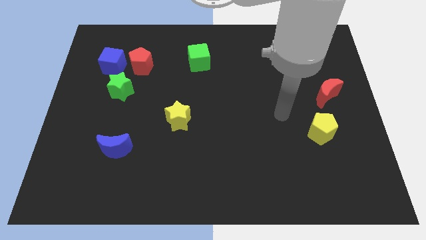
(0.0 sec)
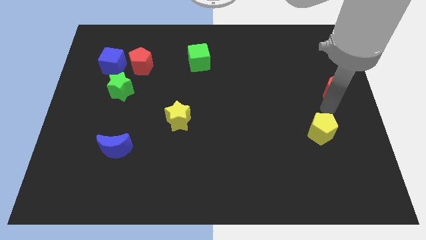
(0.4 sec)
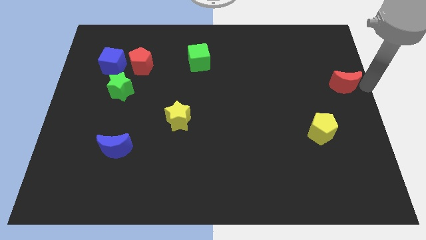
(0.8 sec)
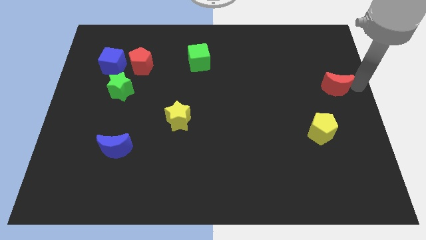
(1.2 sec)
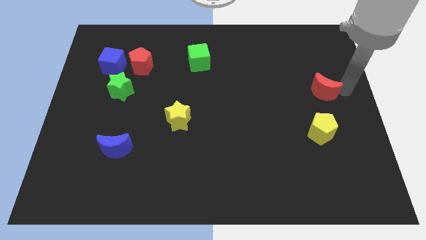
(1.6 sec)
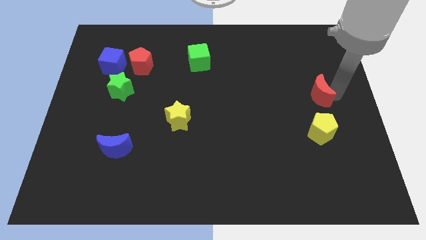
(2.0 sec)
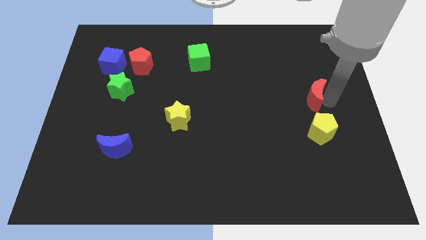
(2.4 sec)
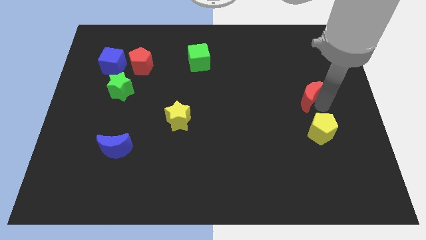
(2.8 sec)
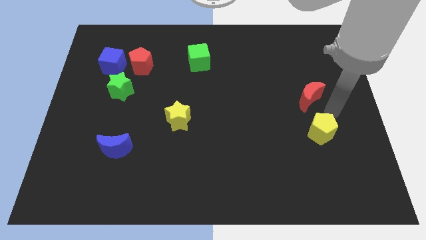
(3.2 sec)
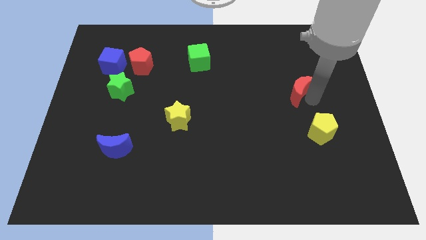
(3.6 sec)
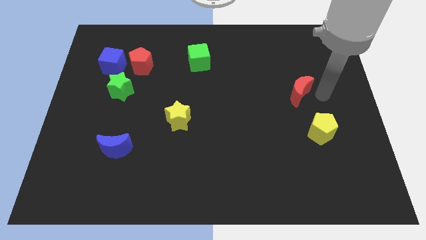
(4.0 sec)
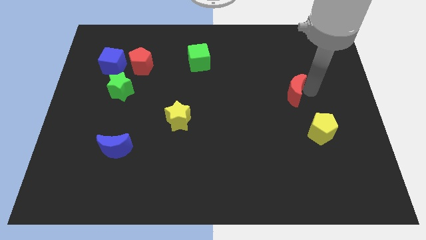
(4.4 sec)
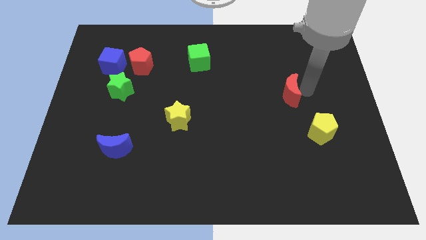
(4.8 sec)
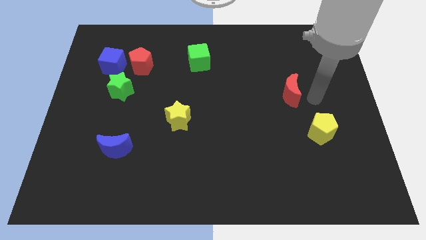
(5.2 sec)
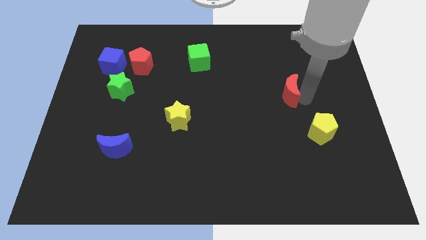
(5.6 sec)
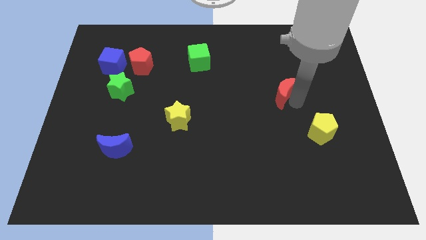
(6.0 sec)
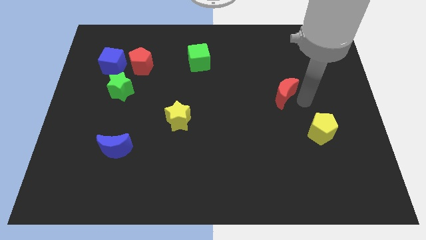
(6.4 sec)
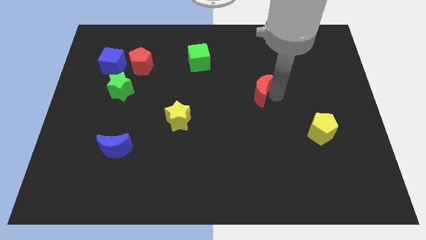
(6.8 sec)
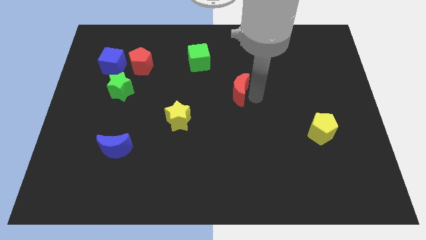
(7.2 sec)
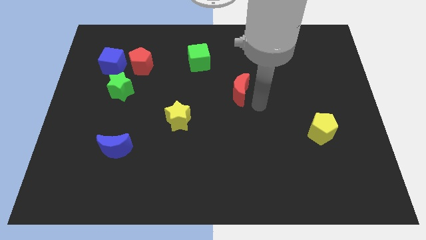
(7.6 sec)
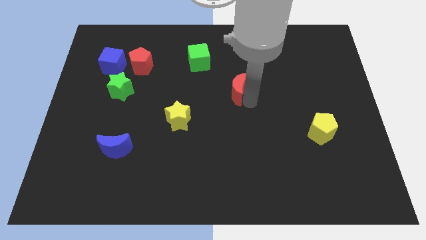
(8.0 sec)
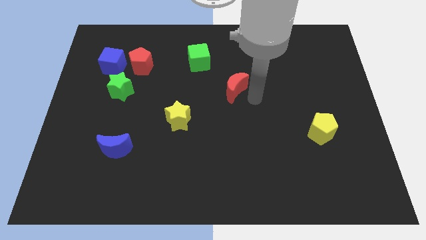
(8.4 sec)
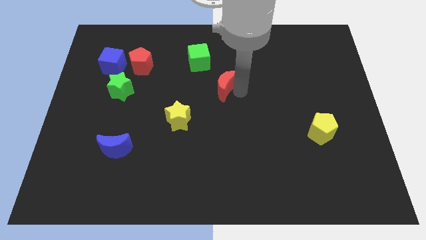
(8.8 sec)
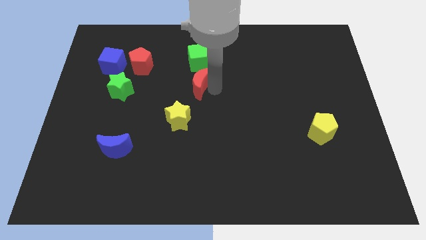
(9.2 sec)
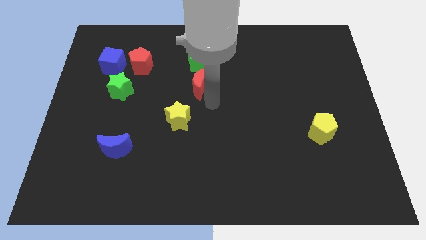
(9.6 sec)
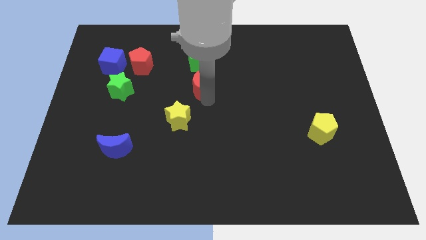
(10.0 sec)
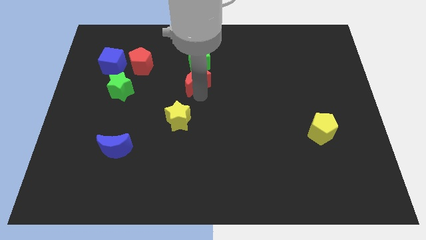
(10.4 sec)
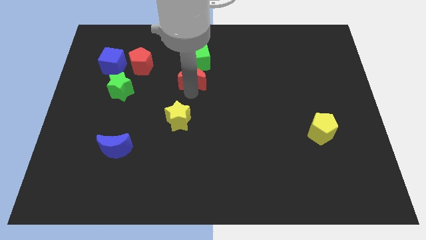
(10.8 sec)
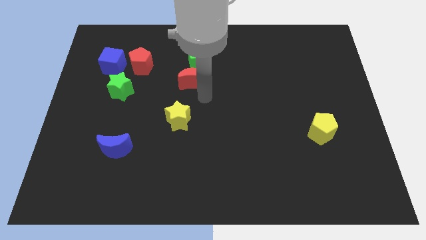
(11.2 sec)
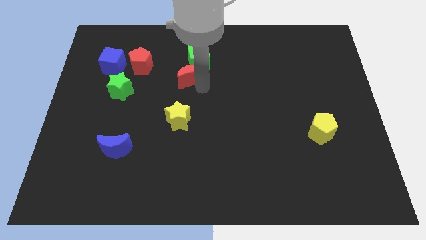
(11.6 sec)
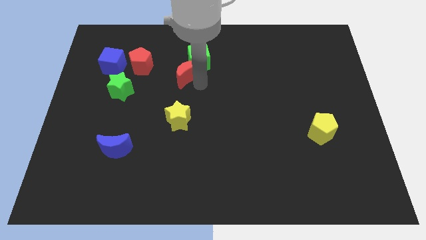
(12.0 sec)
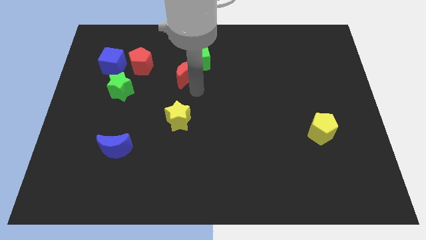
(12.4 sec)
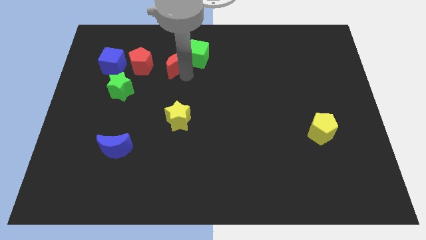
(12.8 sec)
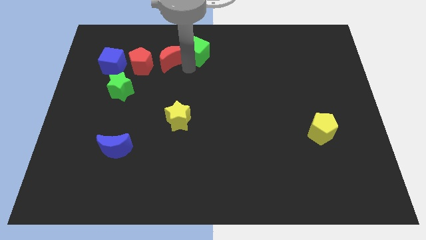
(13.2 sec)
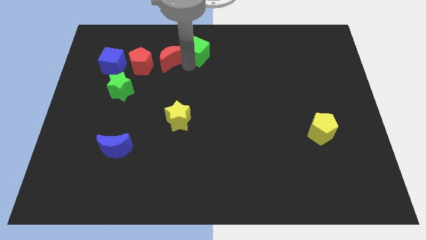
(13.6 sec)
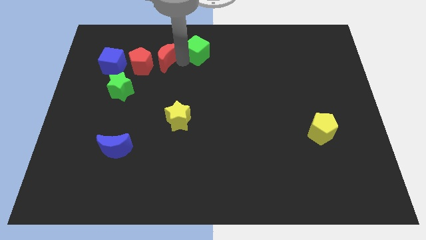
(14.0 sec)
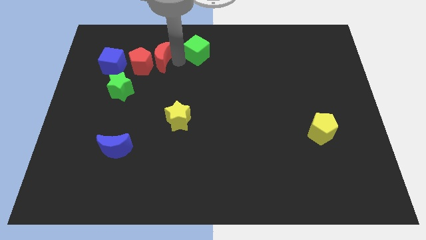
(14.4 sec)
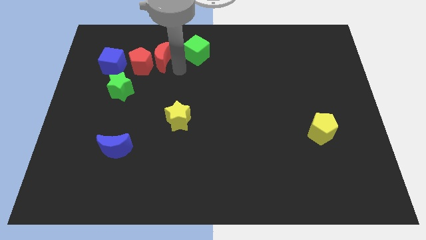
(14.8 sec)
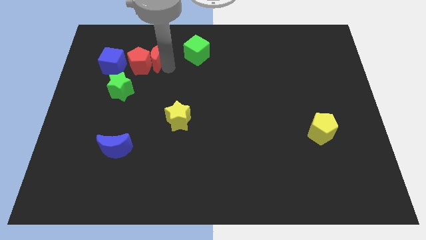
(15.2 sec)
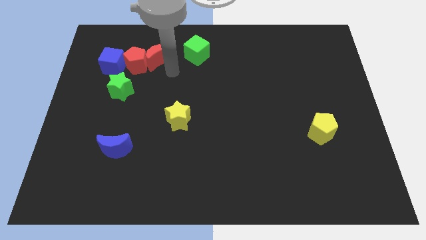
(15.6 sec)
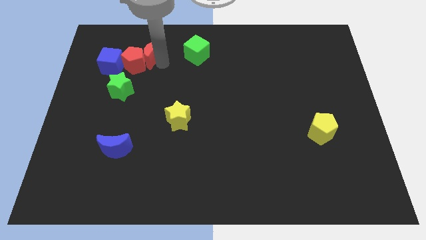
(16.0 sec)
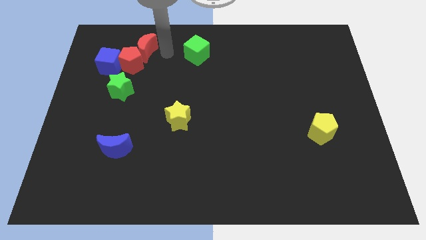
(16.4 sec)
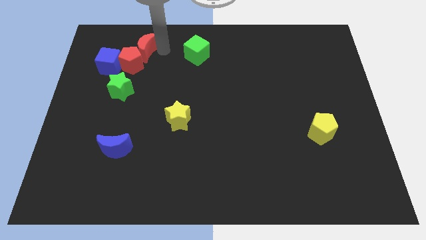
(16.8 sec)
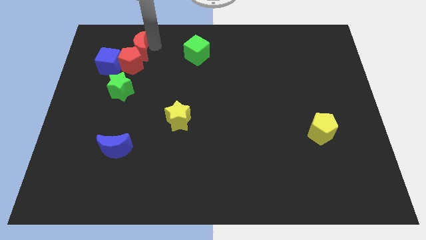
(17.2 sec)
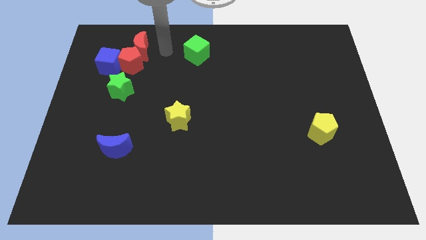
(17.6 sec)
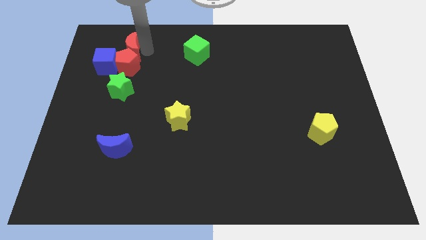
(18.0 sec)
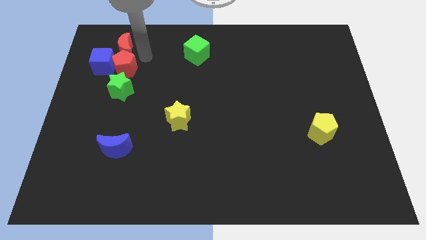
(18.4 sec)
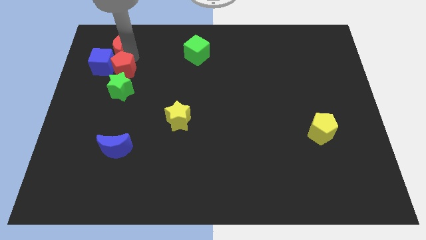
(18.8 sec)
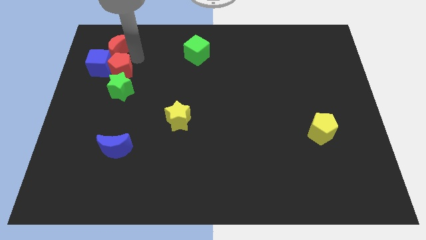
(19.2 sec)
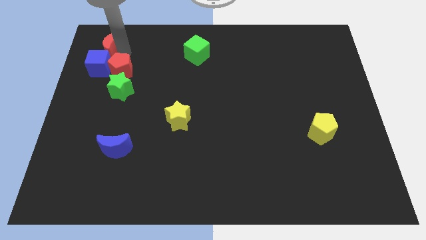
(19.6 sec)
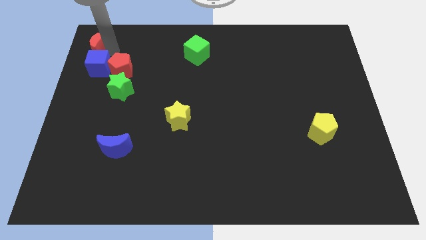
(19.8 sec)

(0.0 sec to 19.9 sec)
move the red moon to the top left

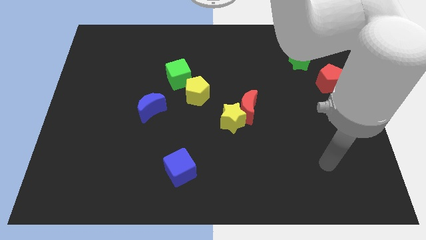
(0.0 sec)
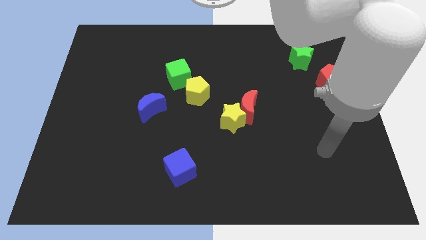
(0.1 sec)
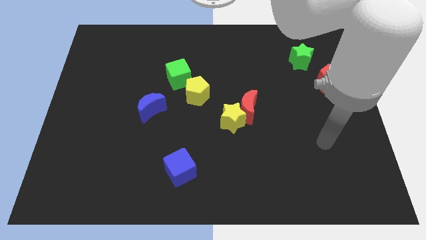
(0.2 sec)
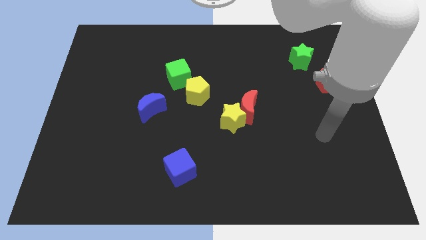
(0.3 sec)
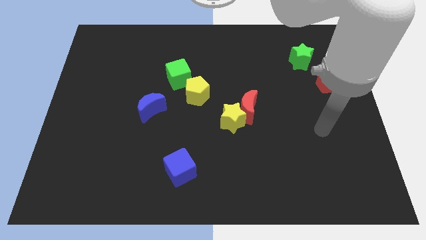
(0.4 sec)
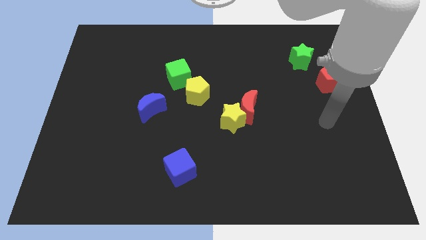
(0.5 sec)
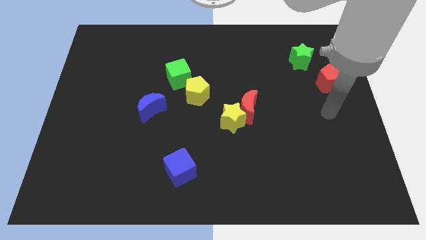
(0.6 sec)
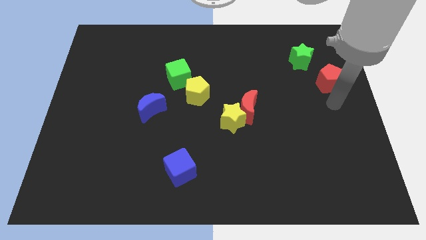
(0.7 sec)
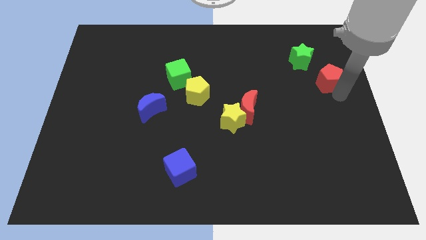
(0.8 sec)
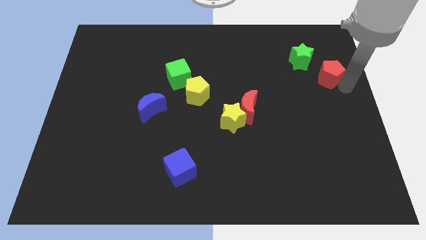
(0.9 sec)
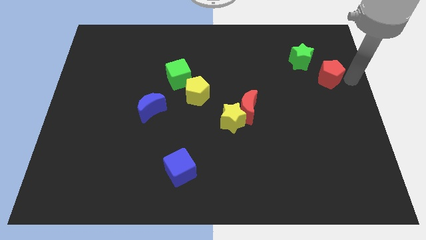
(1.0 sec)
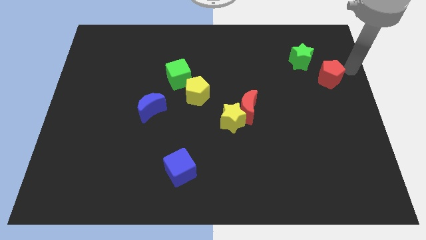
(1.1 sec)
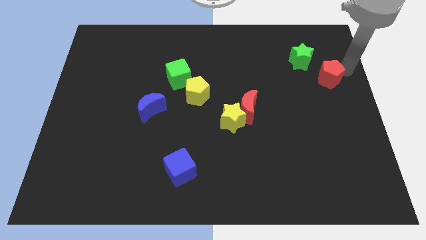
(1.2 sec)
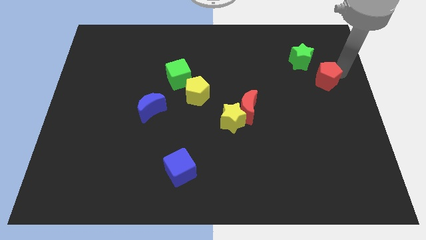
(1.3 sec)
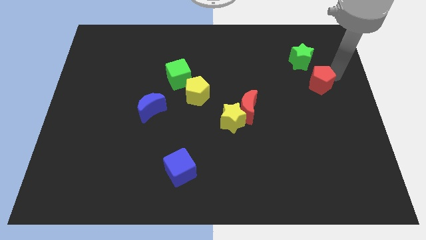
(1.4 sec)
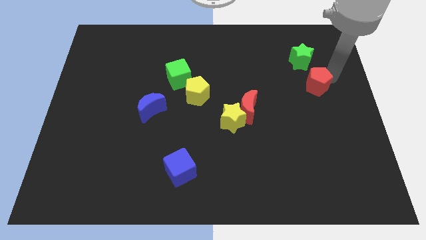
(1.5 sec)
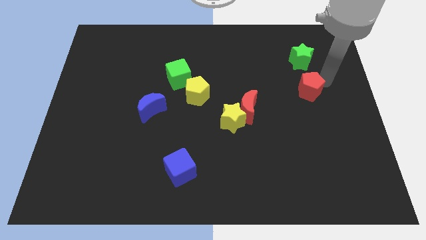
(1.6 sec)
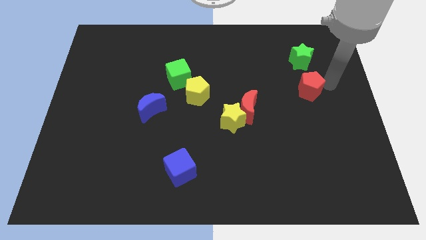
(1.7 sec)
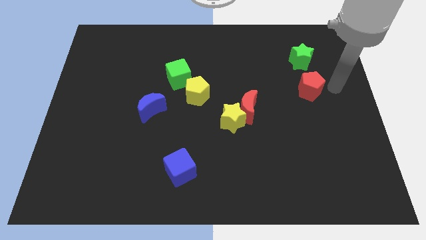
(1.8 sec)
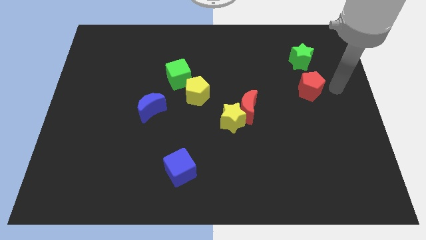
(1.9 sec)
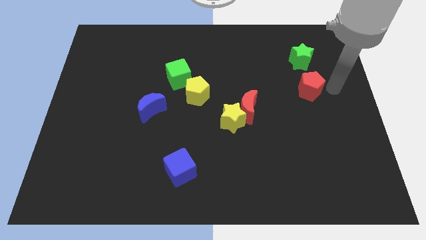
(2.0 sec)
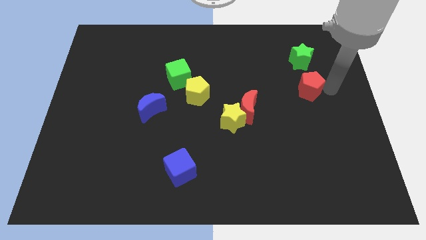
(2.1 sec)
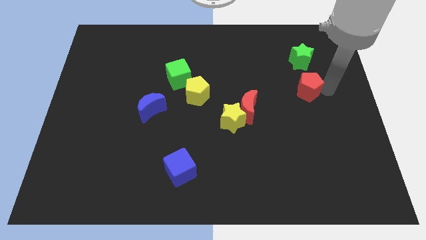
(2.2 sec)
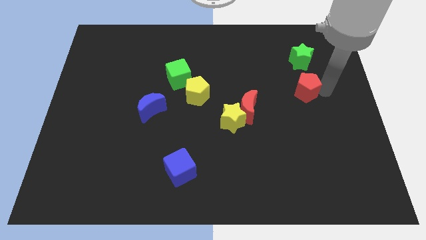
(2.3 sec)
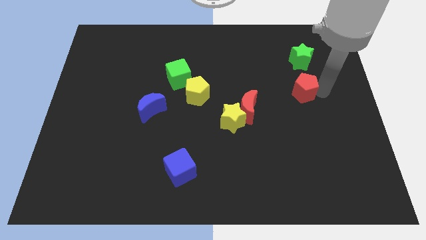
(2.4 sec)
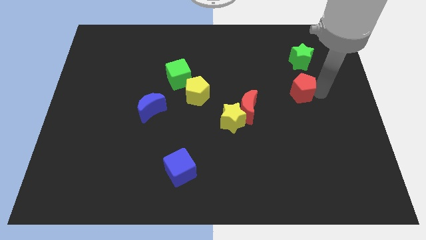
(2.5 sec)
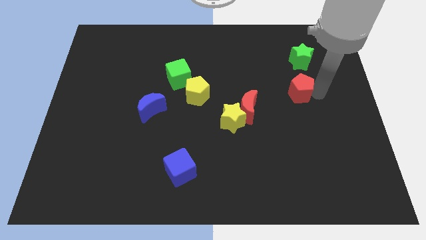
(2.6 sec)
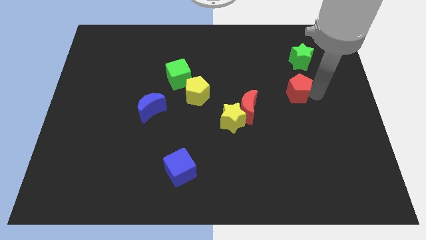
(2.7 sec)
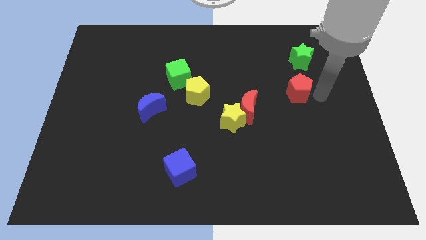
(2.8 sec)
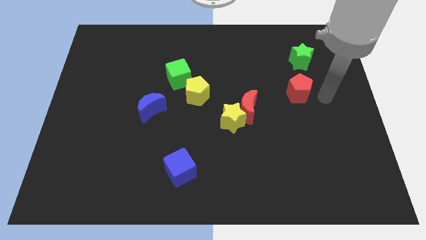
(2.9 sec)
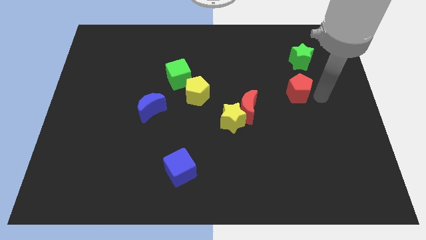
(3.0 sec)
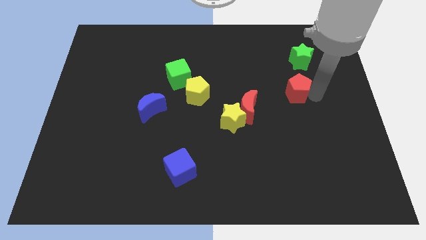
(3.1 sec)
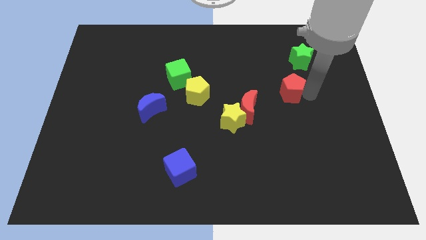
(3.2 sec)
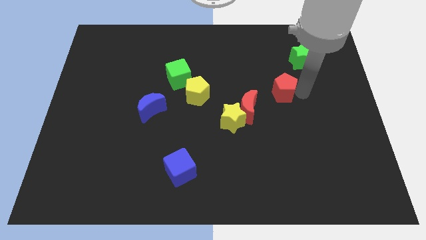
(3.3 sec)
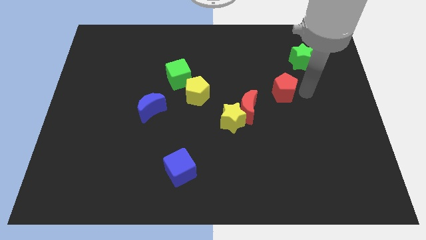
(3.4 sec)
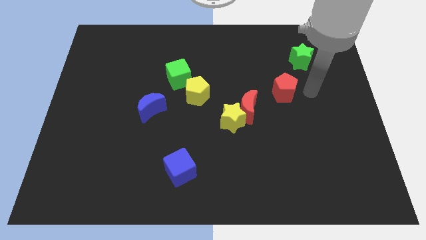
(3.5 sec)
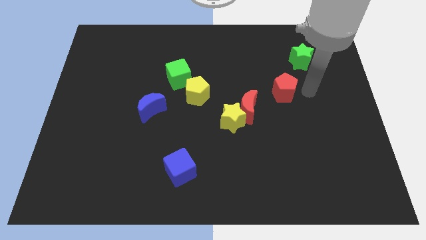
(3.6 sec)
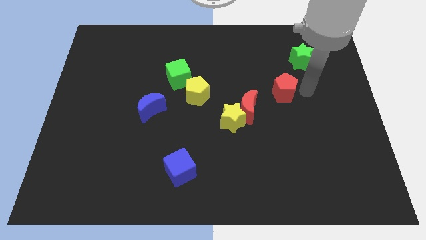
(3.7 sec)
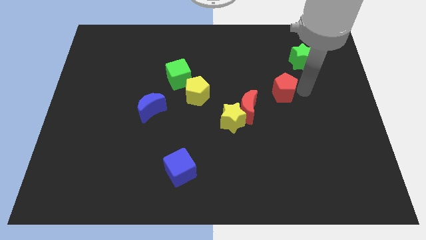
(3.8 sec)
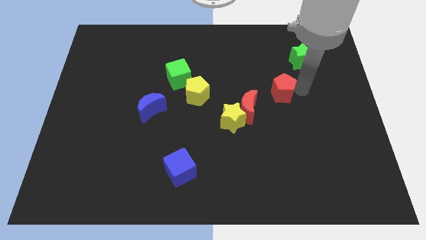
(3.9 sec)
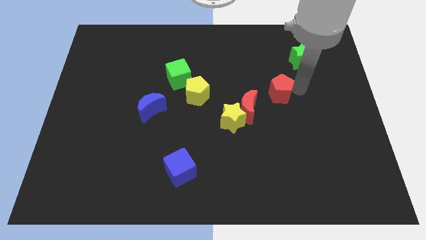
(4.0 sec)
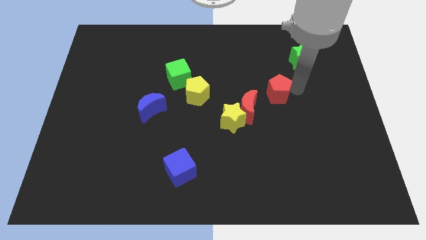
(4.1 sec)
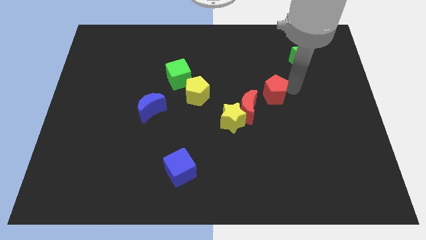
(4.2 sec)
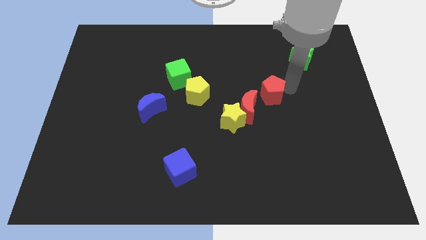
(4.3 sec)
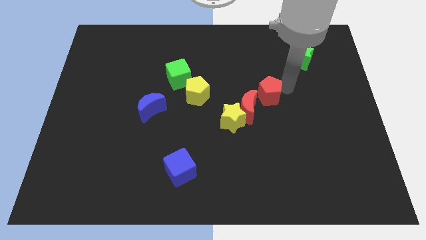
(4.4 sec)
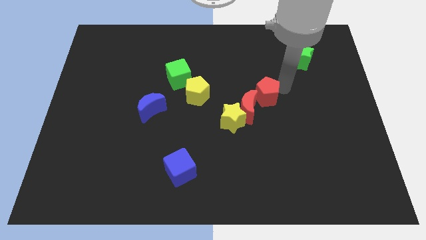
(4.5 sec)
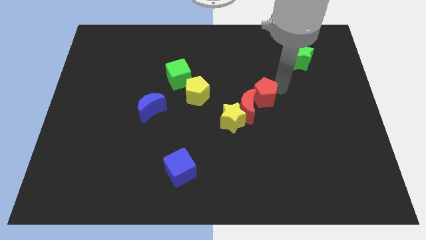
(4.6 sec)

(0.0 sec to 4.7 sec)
put the red pentagon to the center of the board
